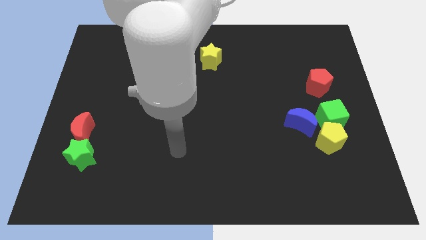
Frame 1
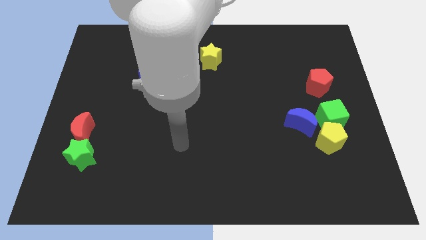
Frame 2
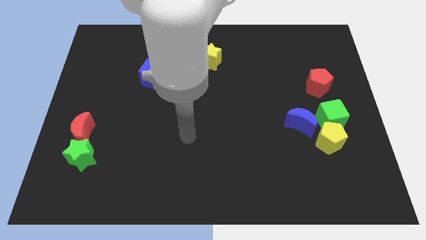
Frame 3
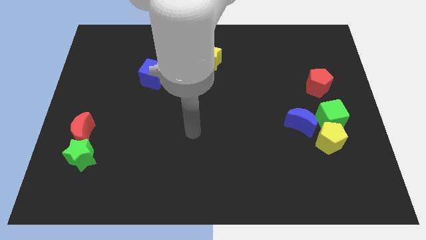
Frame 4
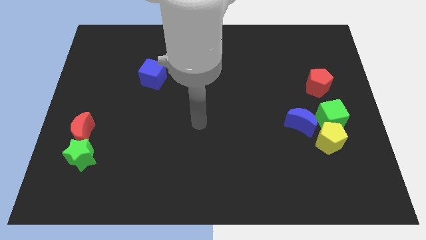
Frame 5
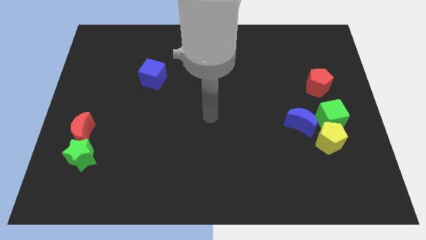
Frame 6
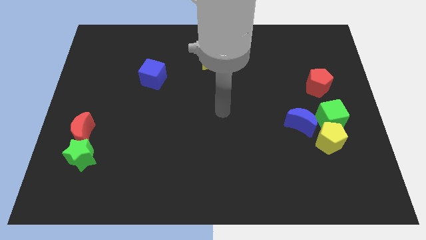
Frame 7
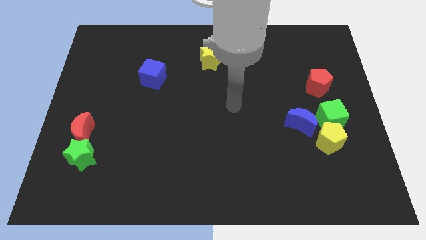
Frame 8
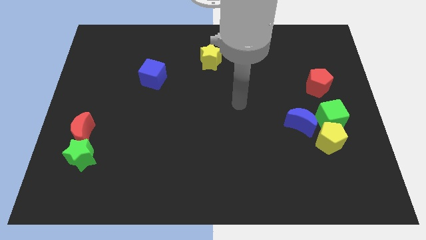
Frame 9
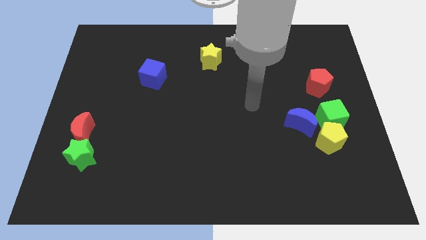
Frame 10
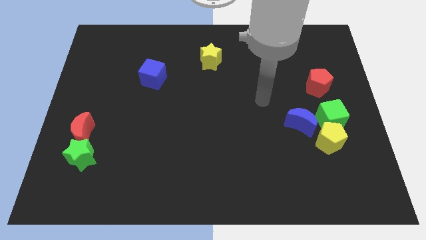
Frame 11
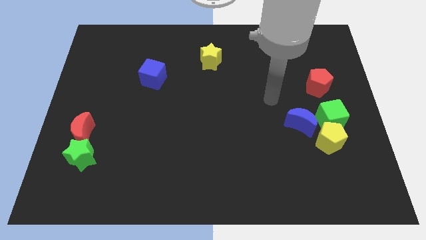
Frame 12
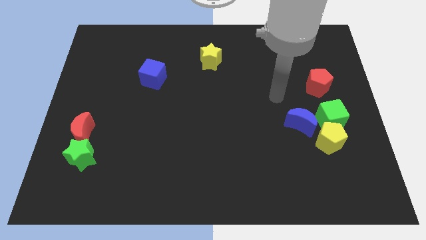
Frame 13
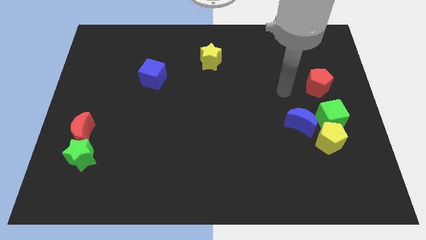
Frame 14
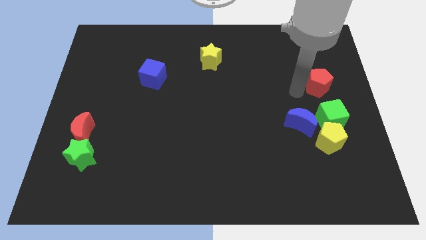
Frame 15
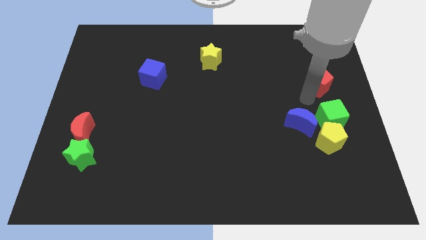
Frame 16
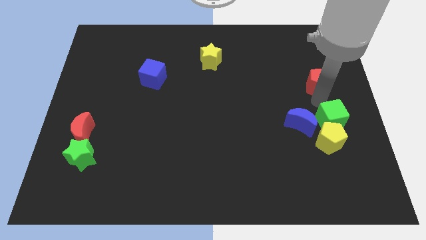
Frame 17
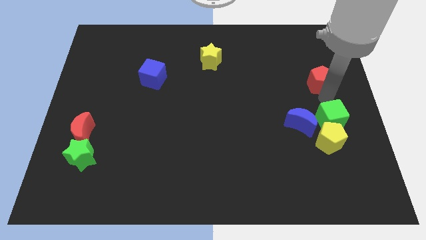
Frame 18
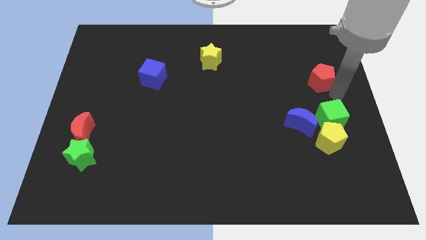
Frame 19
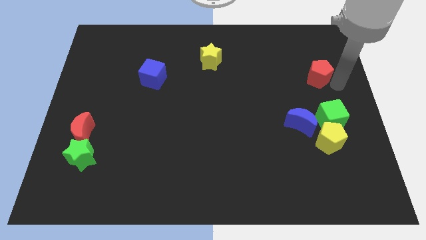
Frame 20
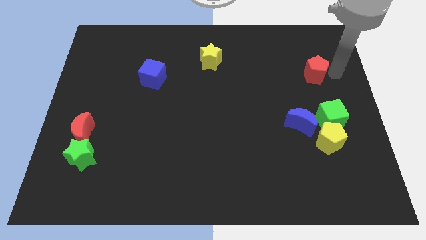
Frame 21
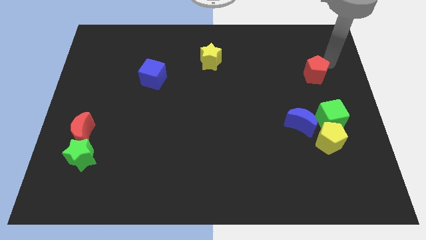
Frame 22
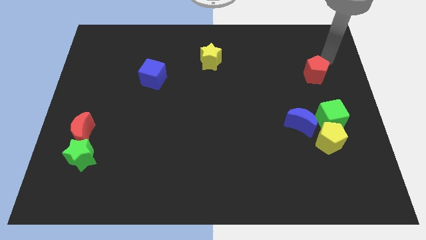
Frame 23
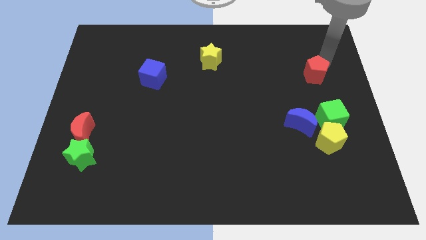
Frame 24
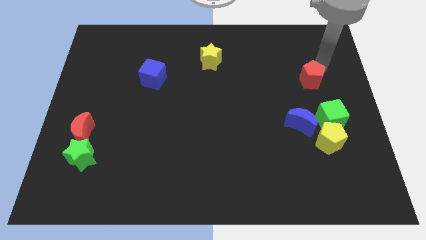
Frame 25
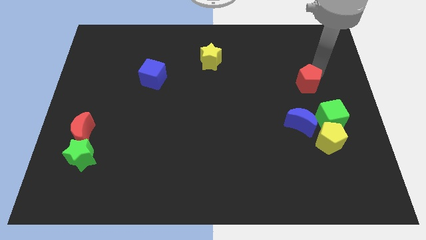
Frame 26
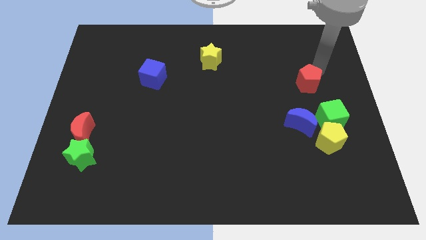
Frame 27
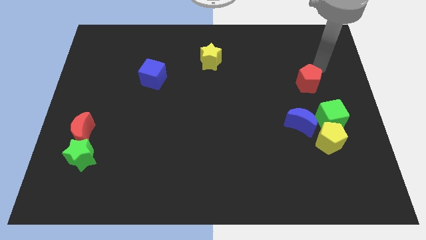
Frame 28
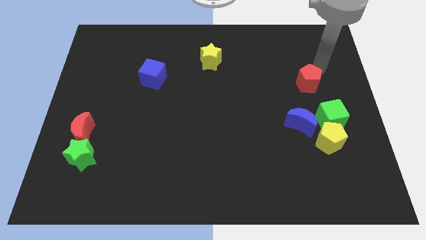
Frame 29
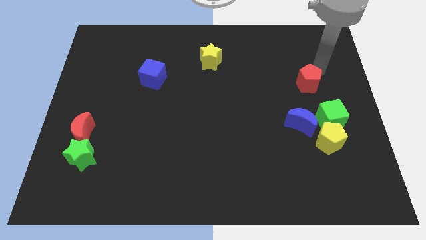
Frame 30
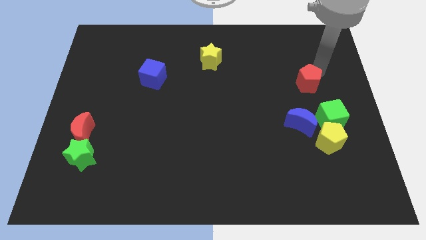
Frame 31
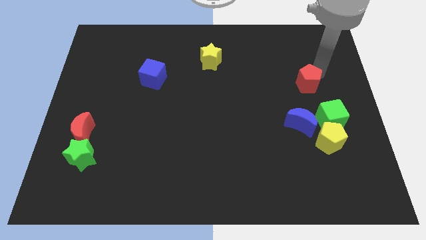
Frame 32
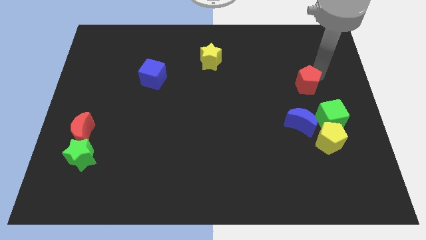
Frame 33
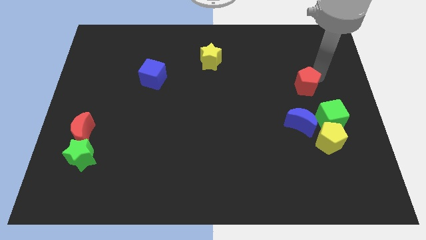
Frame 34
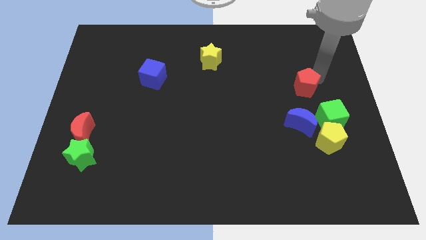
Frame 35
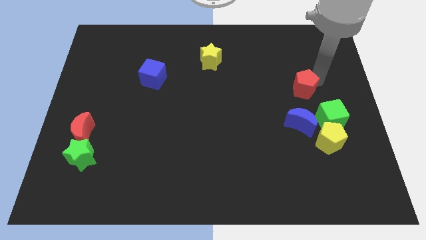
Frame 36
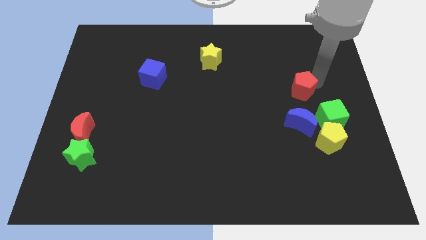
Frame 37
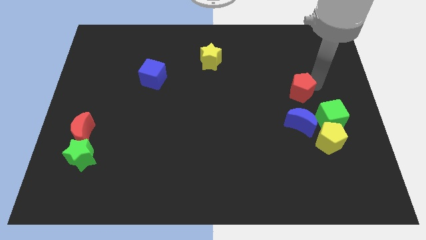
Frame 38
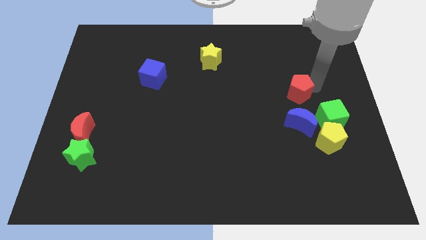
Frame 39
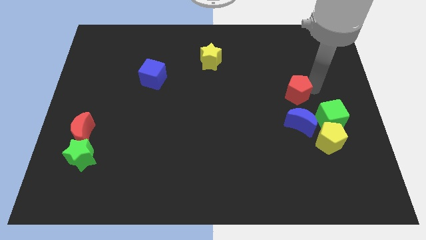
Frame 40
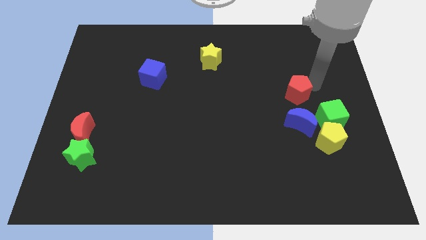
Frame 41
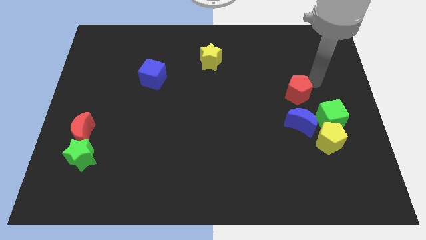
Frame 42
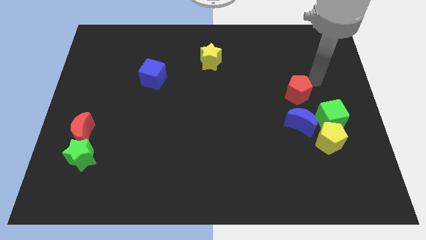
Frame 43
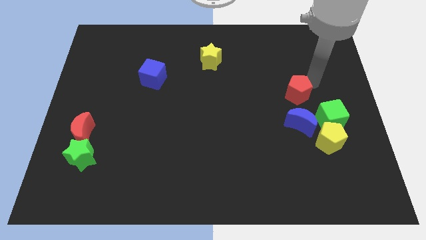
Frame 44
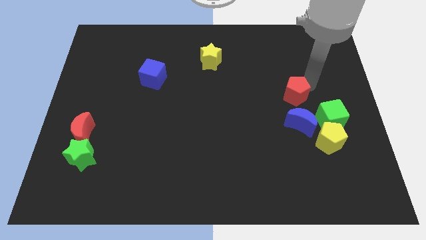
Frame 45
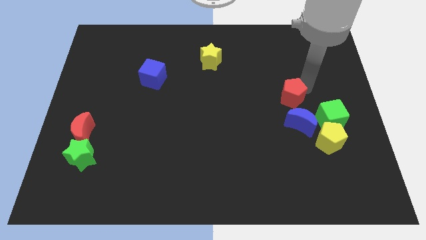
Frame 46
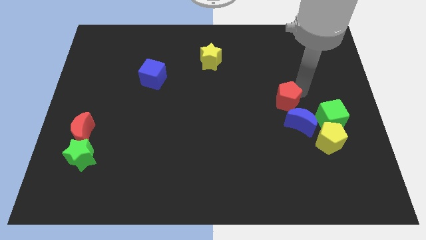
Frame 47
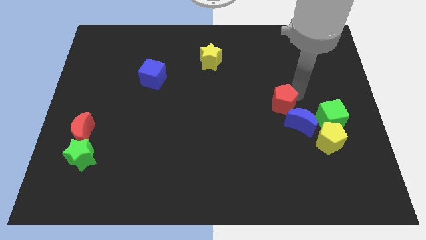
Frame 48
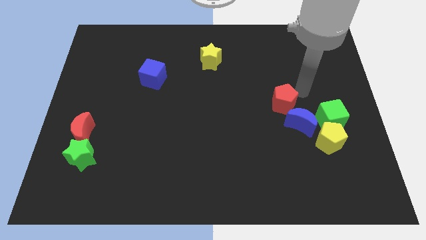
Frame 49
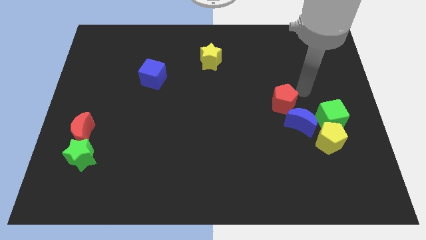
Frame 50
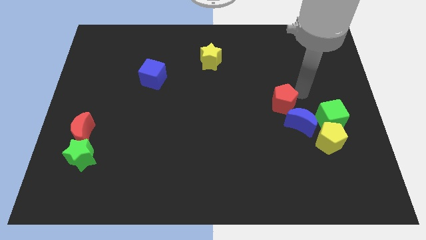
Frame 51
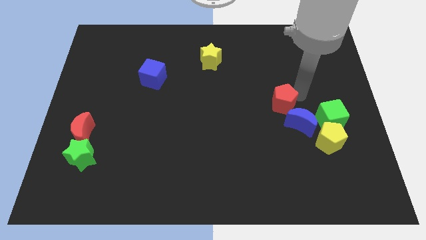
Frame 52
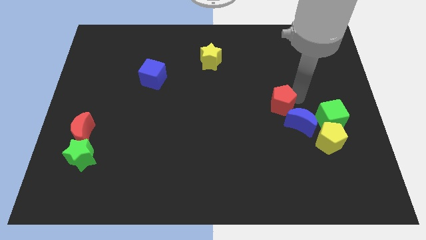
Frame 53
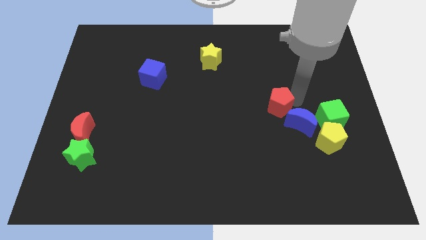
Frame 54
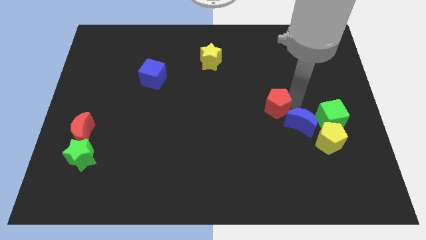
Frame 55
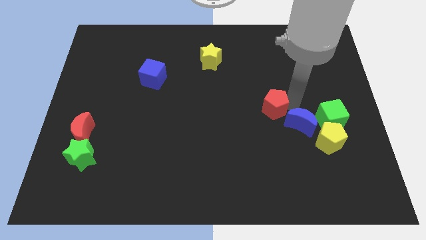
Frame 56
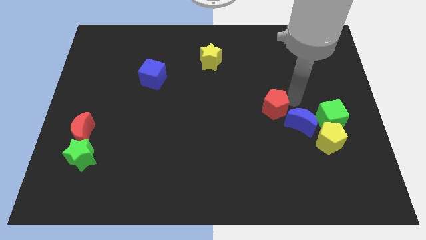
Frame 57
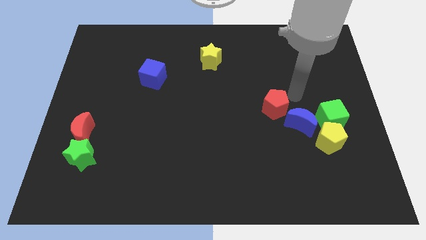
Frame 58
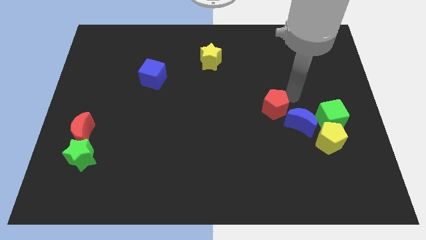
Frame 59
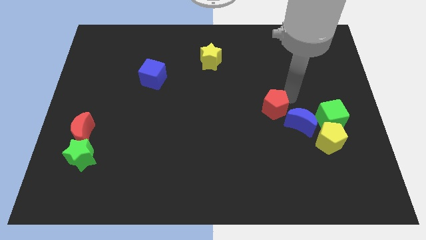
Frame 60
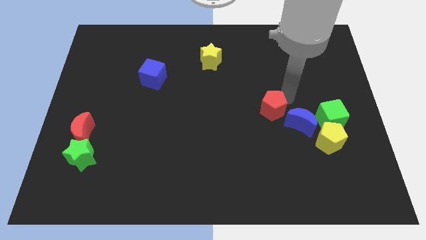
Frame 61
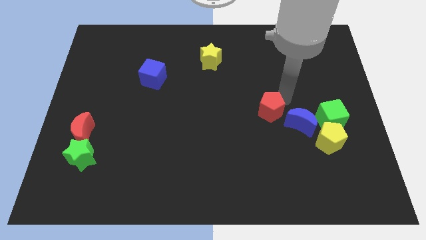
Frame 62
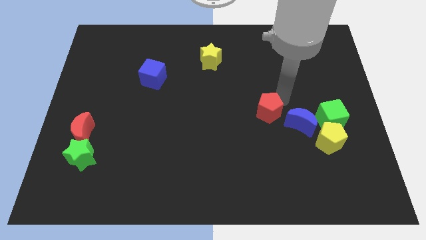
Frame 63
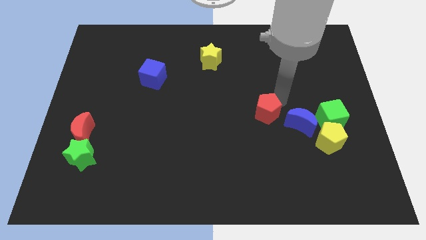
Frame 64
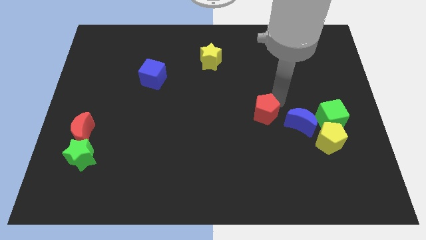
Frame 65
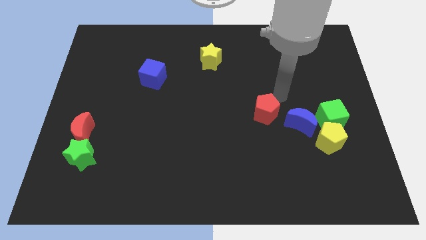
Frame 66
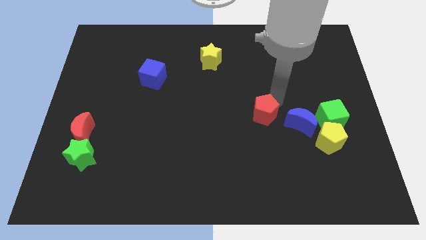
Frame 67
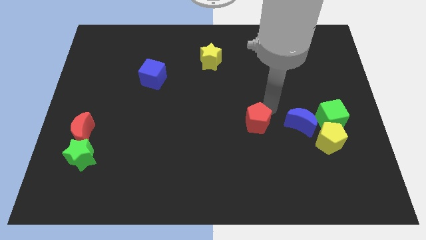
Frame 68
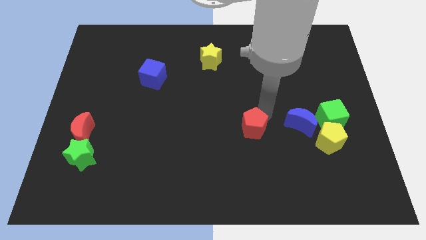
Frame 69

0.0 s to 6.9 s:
slide the red pentagon downwards and to the left

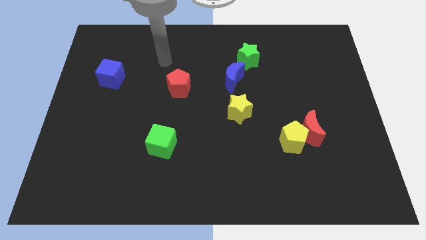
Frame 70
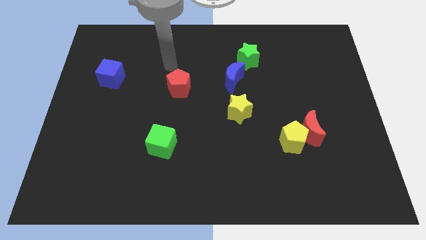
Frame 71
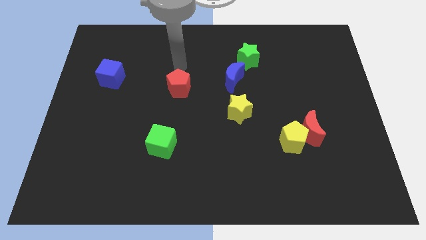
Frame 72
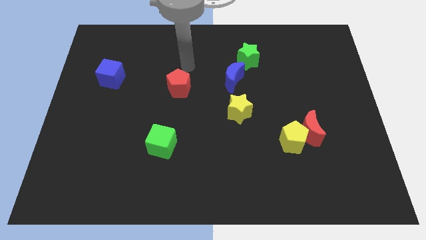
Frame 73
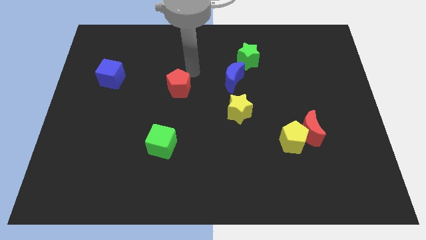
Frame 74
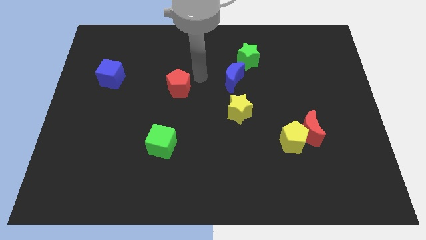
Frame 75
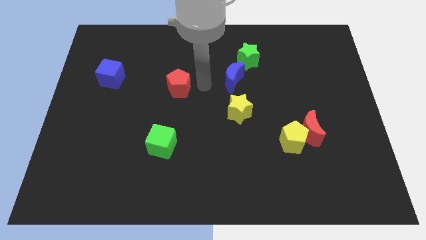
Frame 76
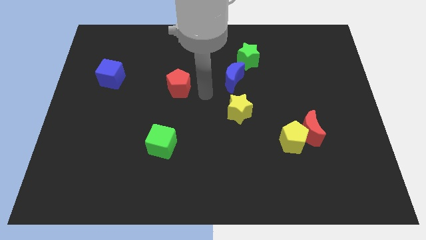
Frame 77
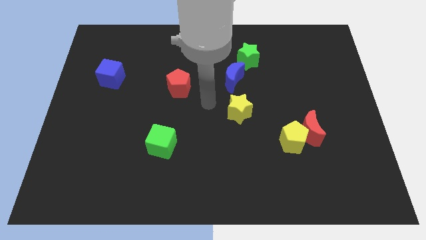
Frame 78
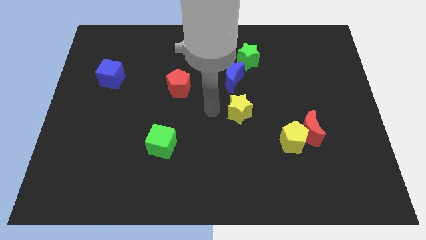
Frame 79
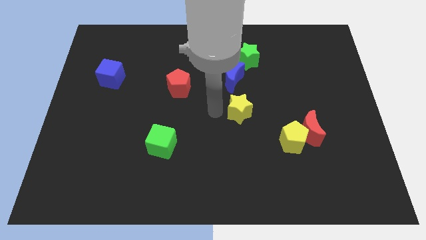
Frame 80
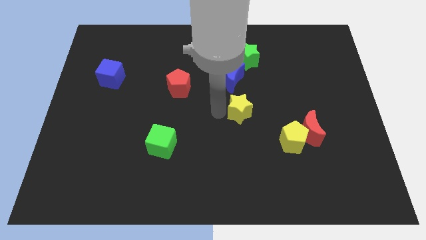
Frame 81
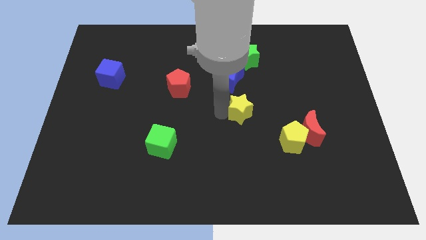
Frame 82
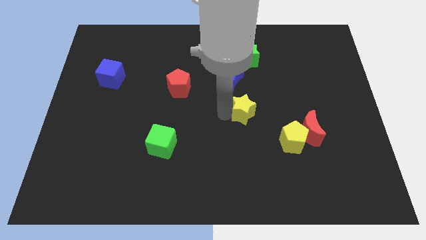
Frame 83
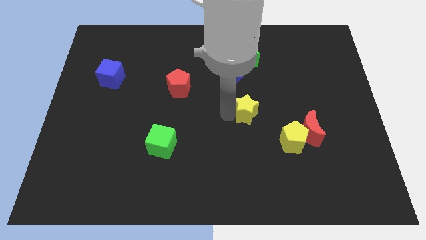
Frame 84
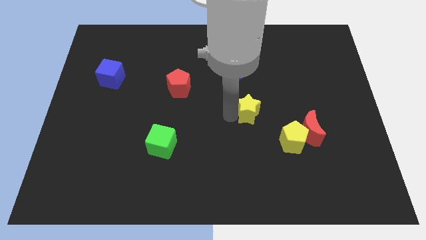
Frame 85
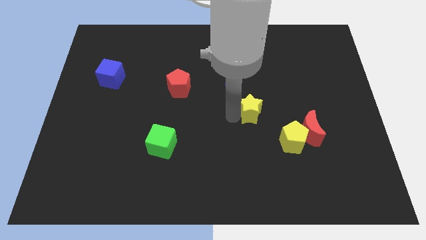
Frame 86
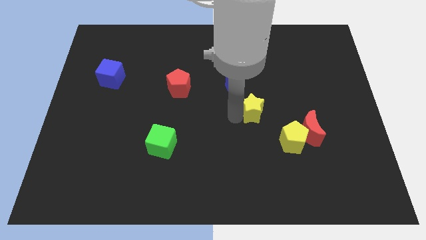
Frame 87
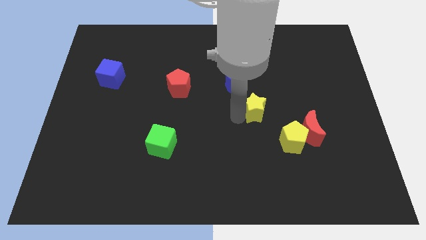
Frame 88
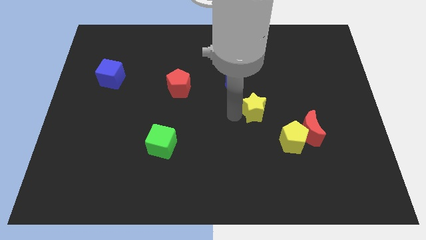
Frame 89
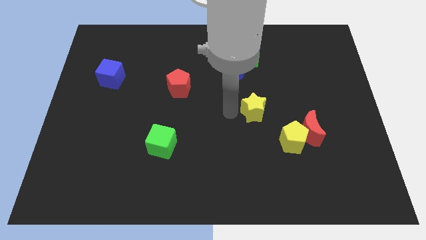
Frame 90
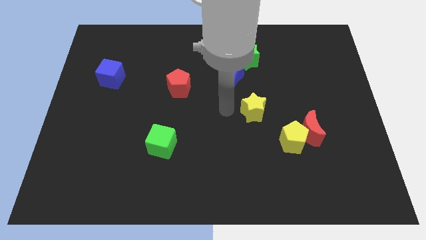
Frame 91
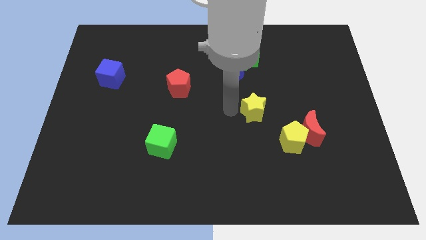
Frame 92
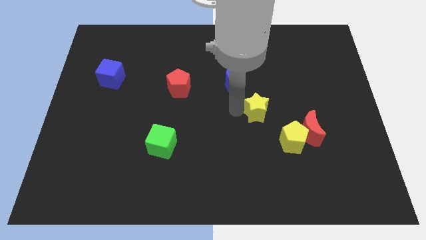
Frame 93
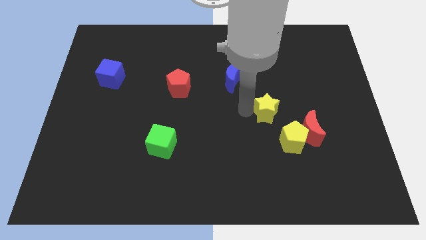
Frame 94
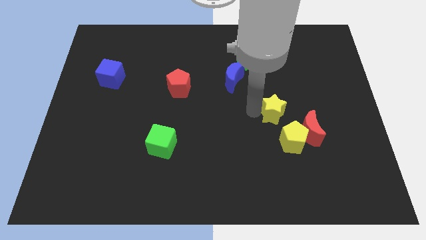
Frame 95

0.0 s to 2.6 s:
slightly slide the yellow star to the right
